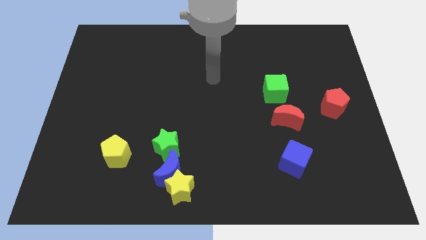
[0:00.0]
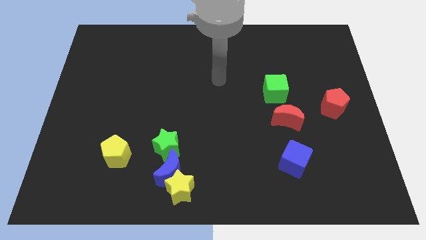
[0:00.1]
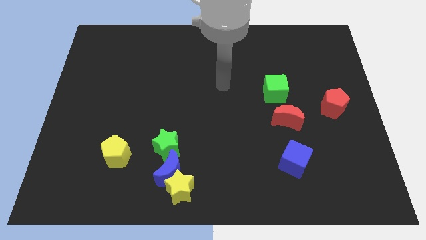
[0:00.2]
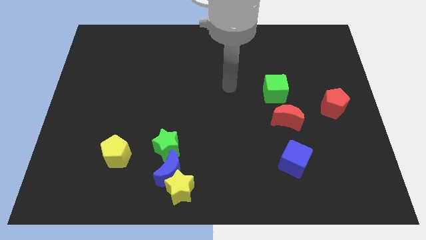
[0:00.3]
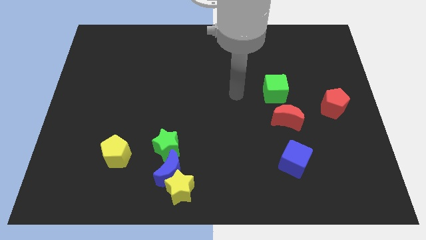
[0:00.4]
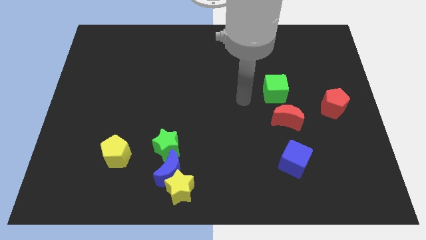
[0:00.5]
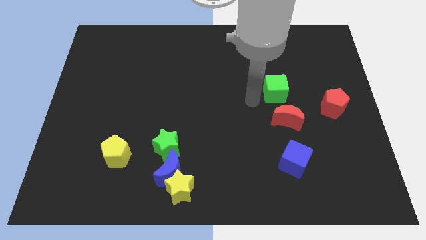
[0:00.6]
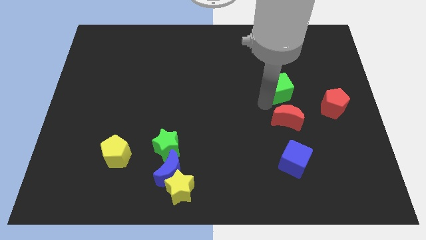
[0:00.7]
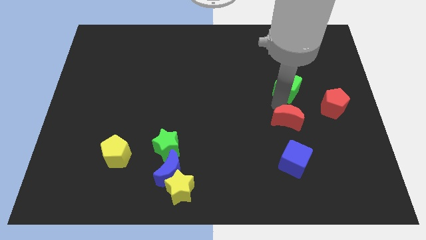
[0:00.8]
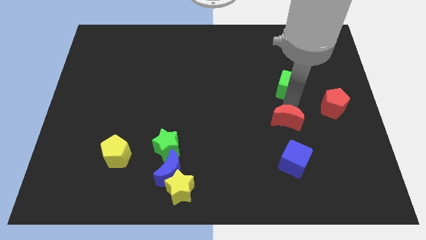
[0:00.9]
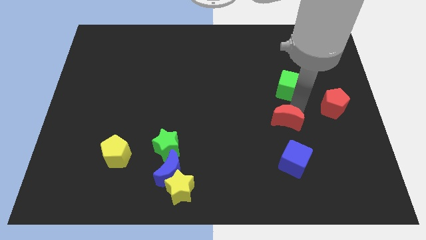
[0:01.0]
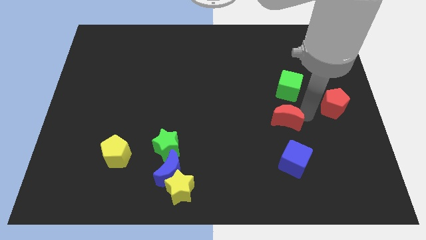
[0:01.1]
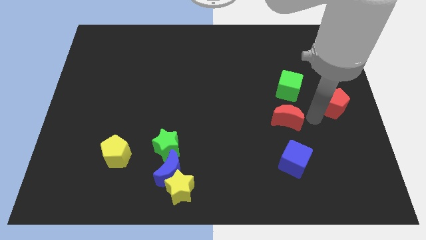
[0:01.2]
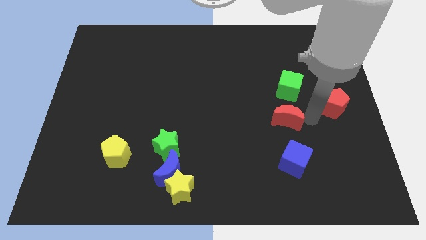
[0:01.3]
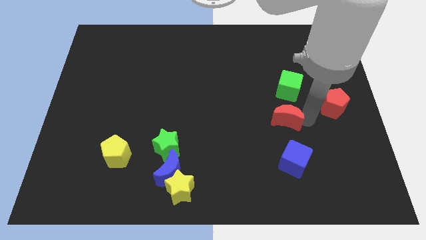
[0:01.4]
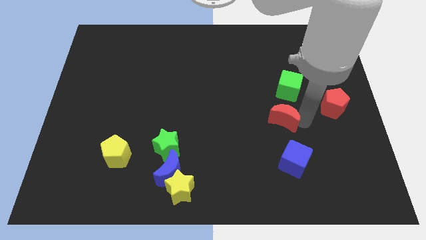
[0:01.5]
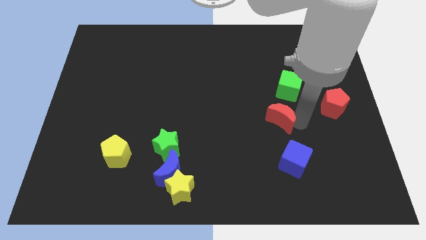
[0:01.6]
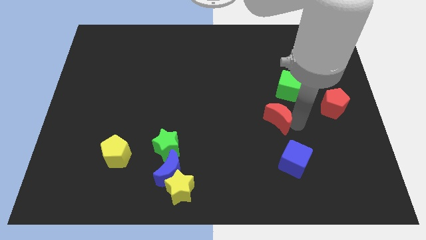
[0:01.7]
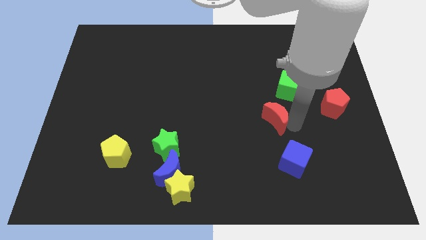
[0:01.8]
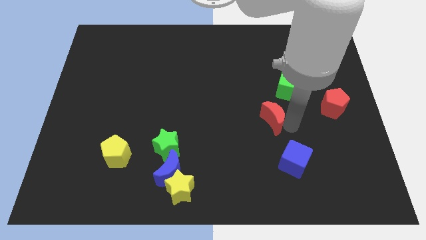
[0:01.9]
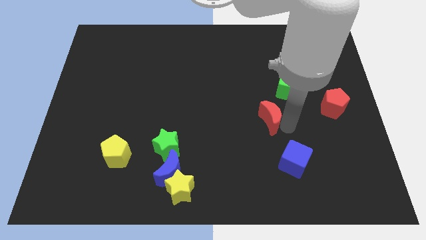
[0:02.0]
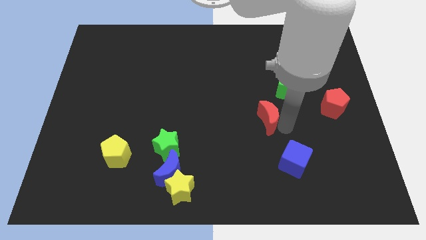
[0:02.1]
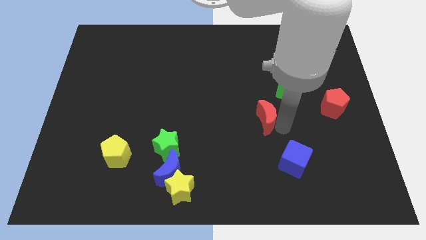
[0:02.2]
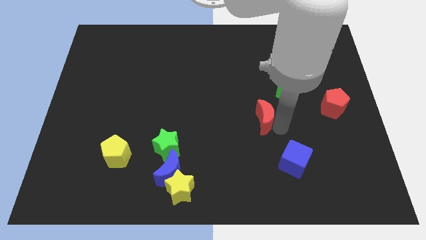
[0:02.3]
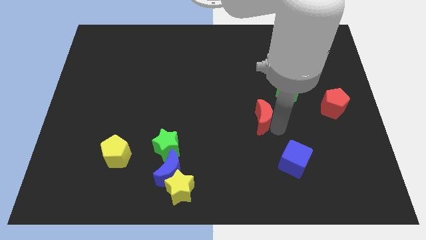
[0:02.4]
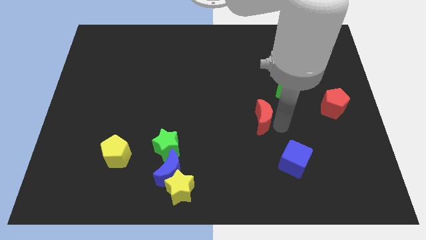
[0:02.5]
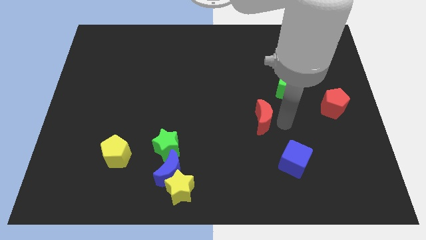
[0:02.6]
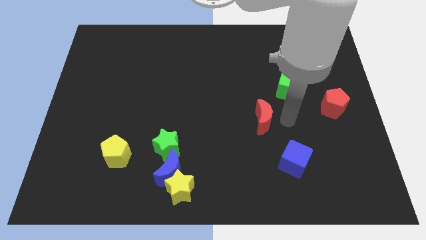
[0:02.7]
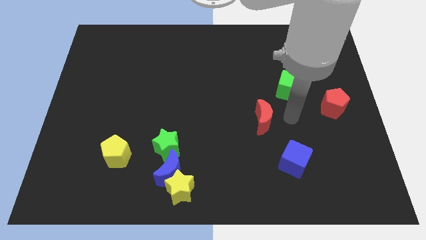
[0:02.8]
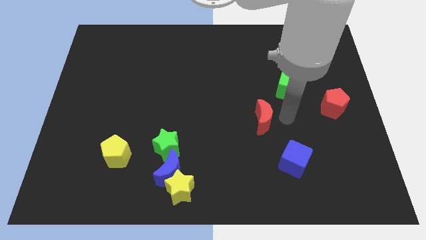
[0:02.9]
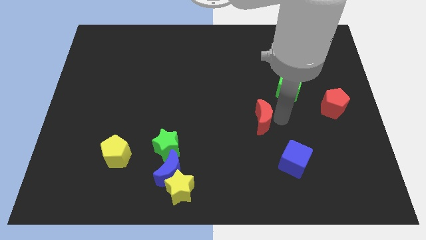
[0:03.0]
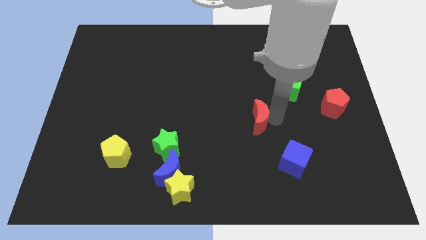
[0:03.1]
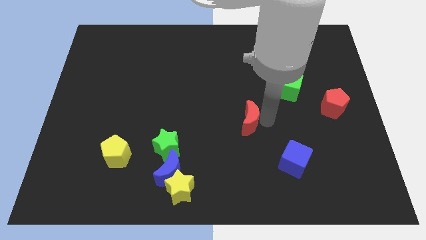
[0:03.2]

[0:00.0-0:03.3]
move the red moon left a bit

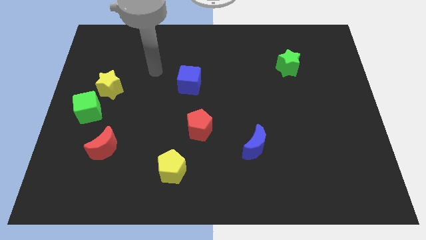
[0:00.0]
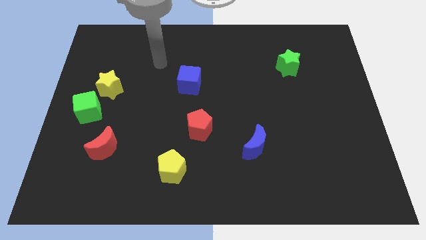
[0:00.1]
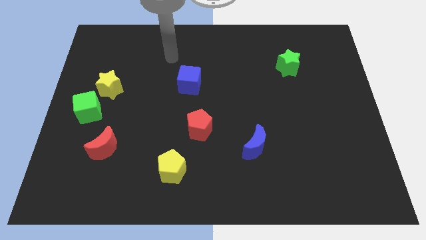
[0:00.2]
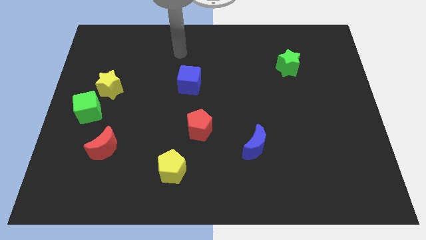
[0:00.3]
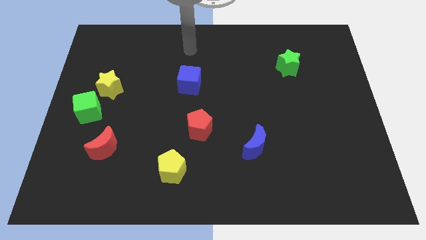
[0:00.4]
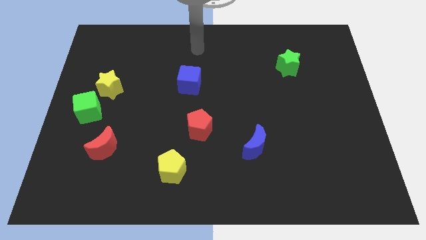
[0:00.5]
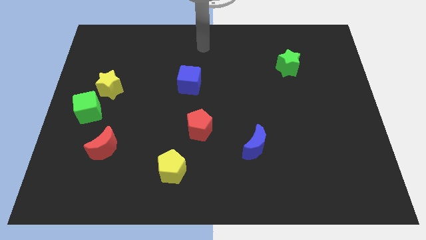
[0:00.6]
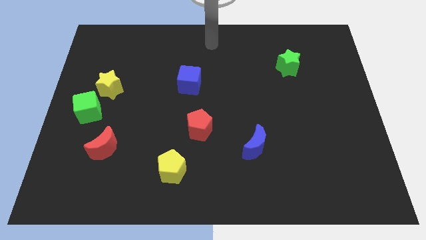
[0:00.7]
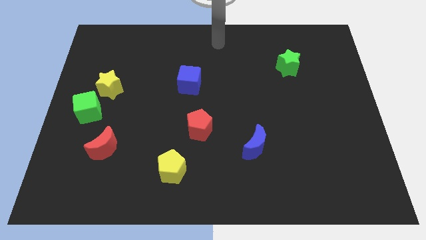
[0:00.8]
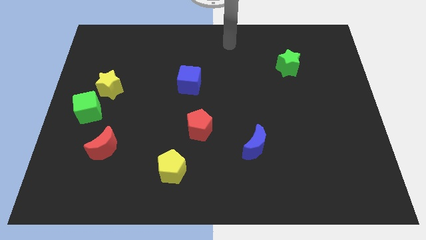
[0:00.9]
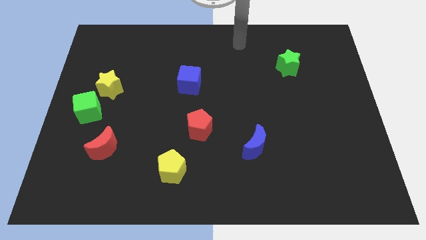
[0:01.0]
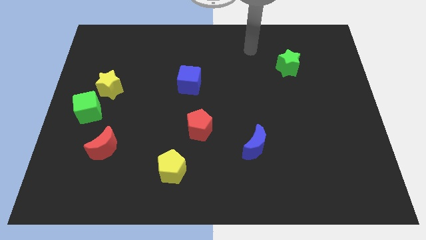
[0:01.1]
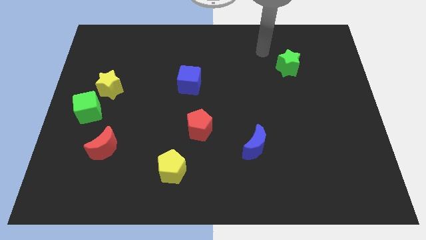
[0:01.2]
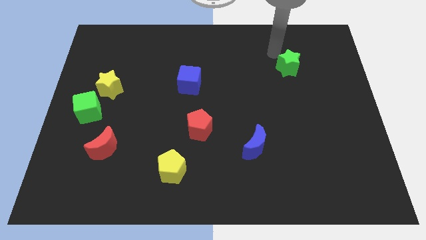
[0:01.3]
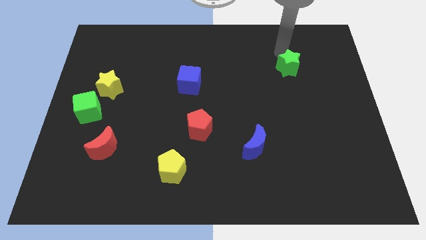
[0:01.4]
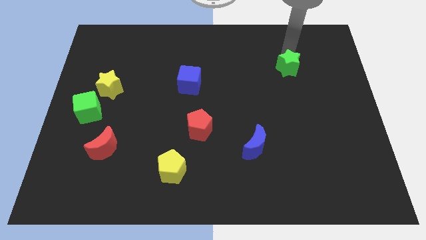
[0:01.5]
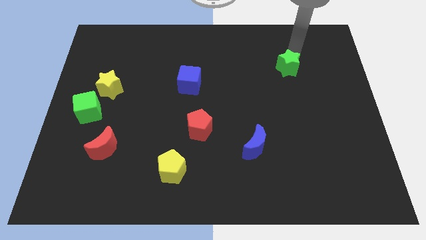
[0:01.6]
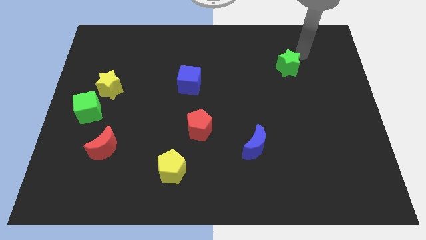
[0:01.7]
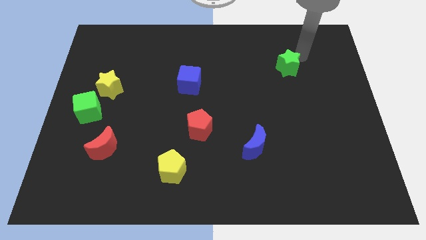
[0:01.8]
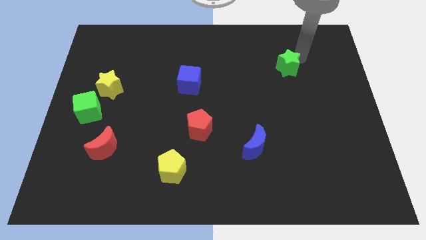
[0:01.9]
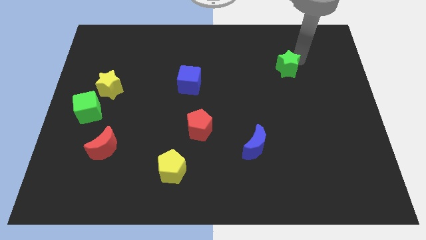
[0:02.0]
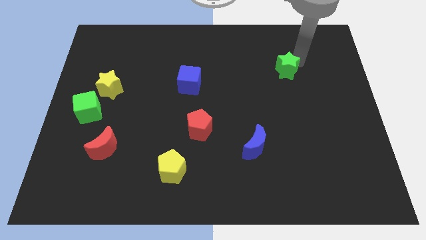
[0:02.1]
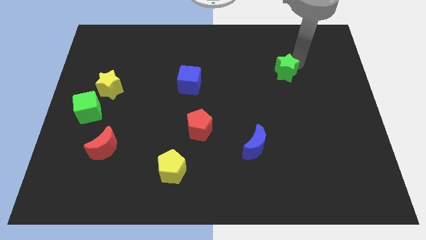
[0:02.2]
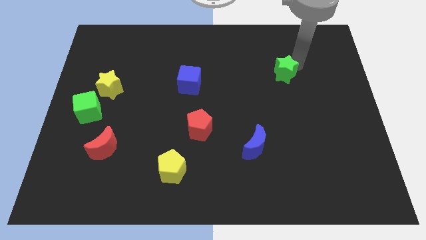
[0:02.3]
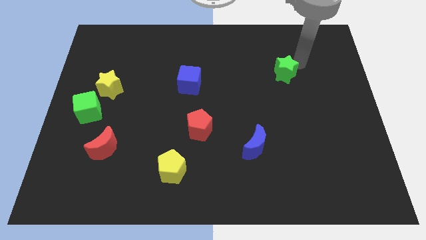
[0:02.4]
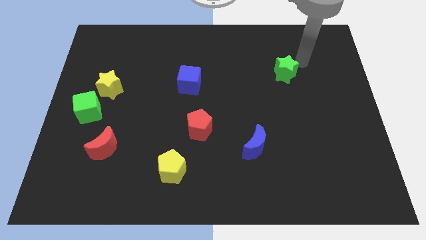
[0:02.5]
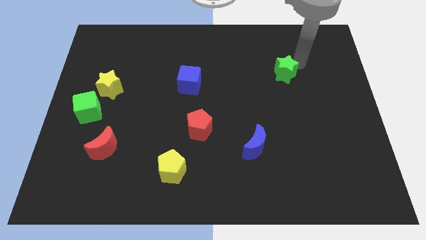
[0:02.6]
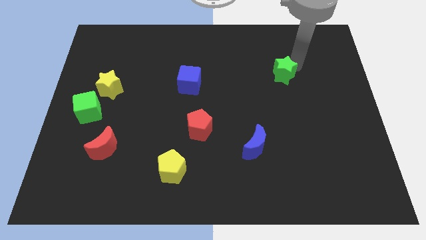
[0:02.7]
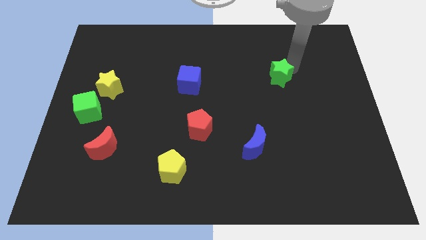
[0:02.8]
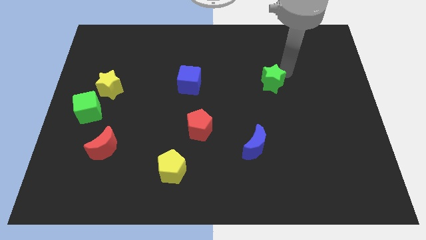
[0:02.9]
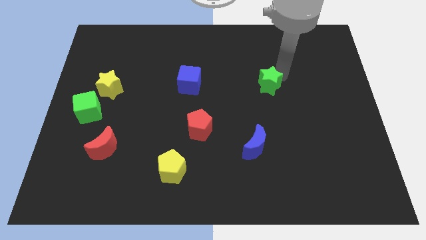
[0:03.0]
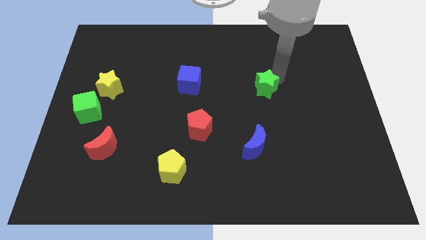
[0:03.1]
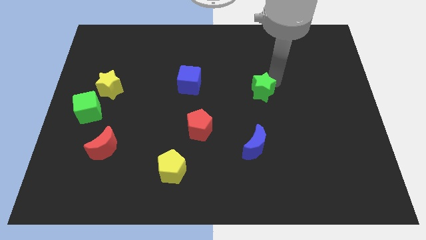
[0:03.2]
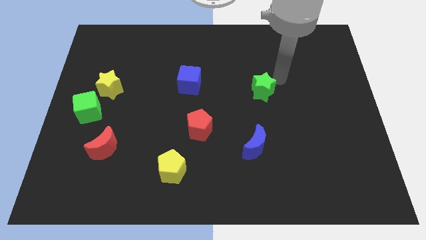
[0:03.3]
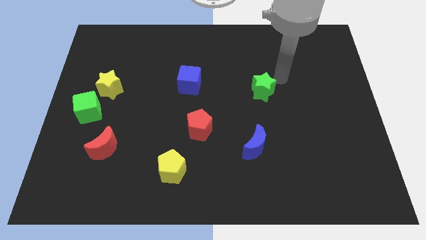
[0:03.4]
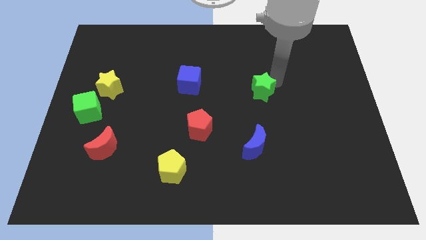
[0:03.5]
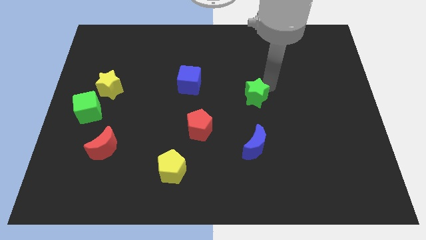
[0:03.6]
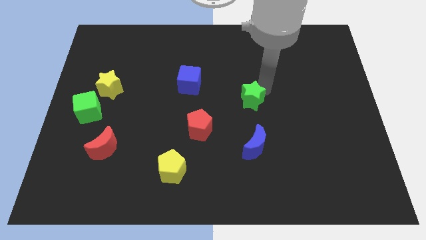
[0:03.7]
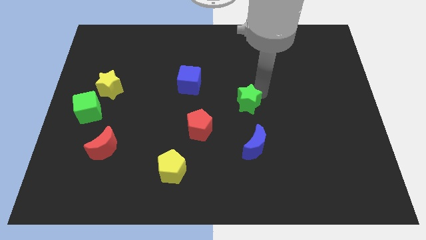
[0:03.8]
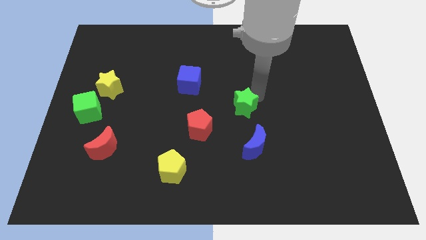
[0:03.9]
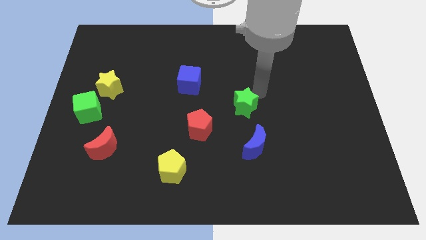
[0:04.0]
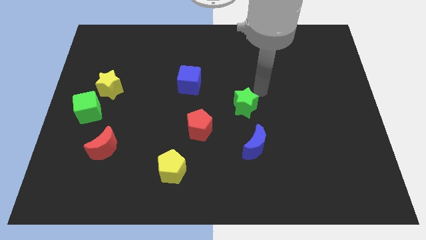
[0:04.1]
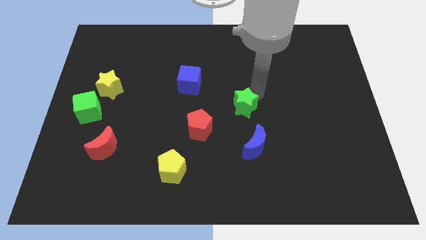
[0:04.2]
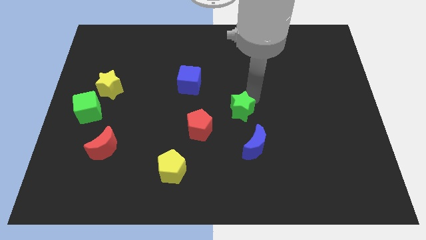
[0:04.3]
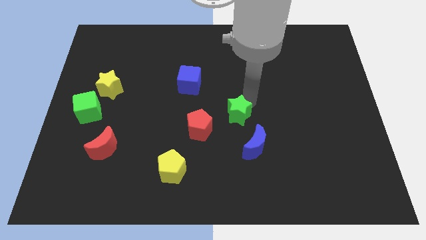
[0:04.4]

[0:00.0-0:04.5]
move the green star down and left diagonally
